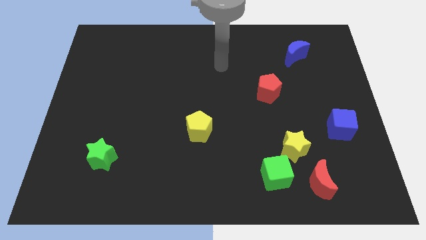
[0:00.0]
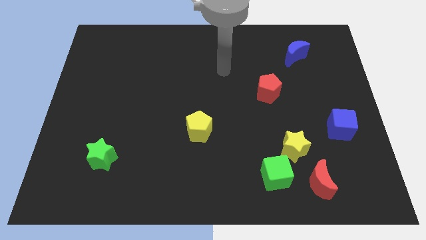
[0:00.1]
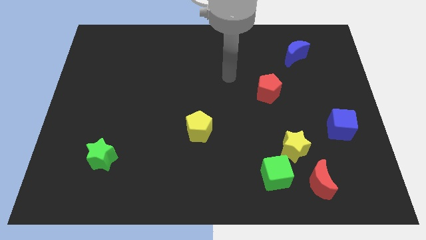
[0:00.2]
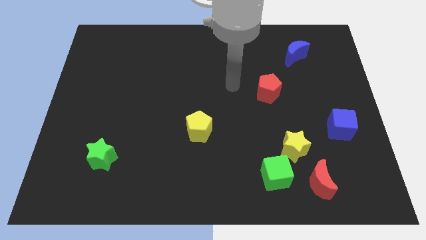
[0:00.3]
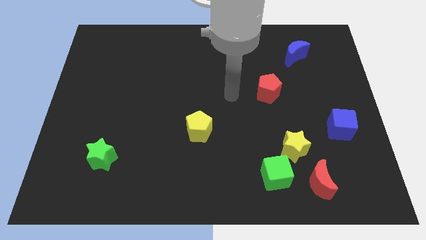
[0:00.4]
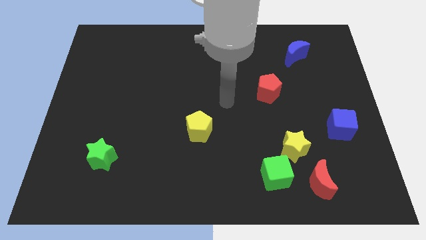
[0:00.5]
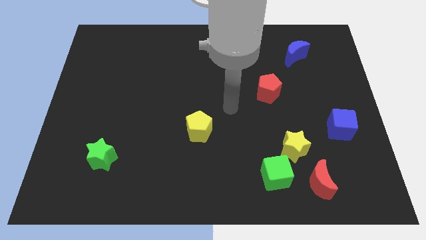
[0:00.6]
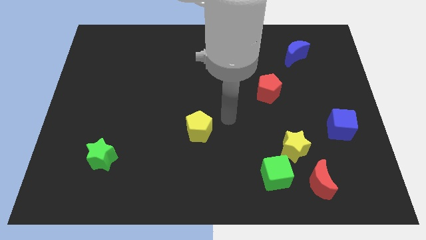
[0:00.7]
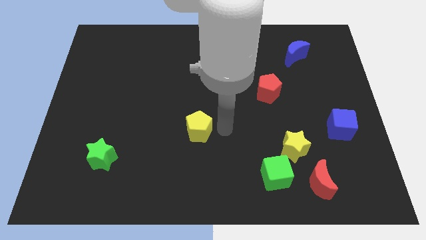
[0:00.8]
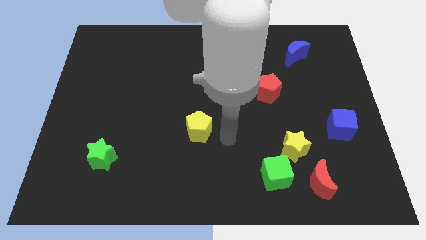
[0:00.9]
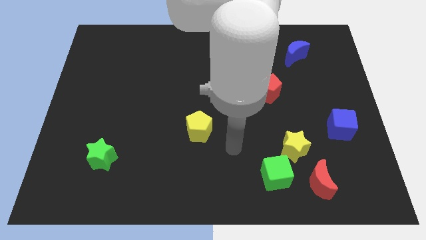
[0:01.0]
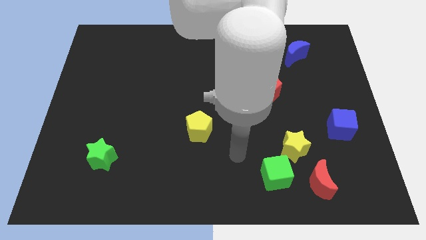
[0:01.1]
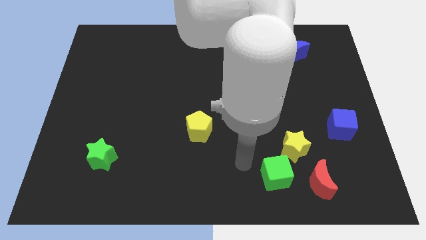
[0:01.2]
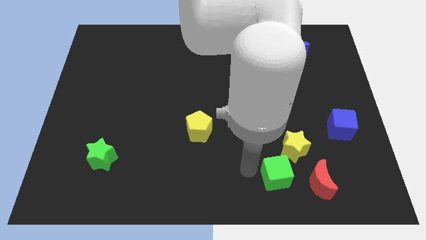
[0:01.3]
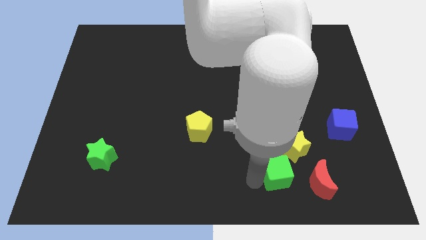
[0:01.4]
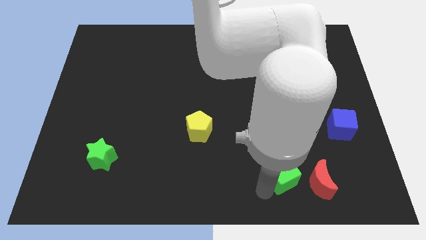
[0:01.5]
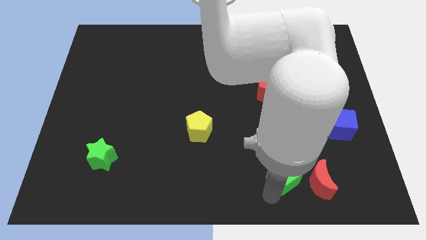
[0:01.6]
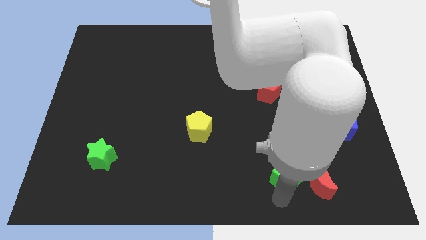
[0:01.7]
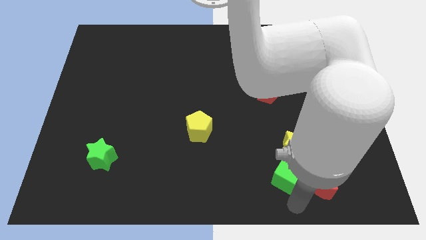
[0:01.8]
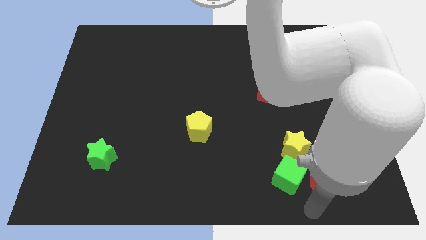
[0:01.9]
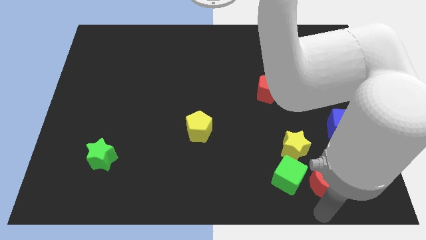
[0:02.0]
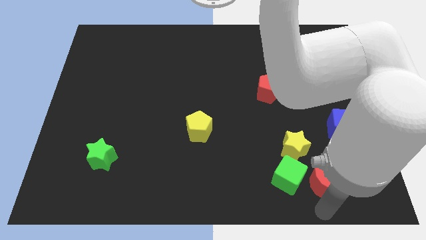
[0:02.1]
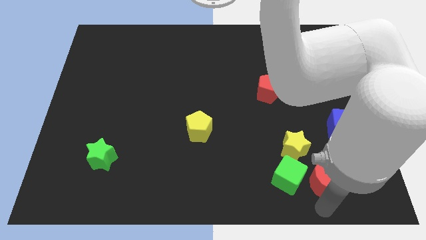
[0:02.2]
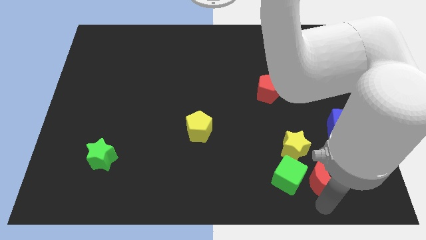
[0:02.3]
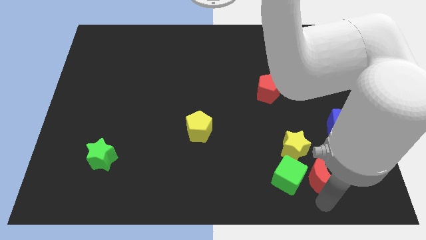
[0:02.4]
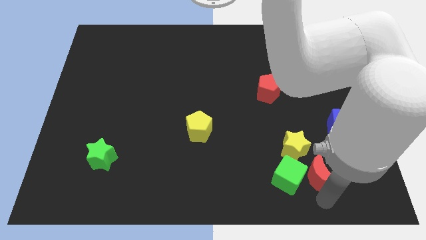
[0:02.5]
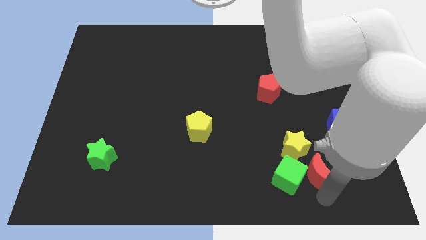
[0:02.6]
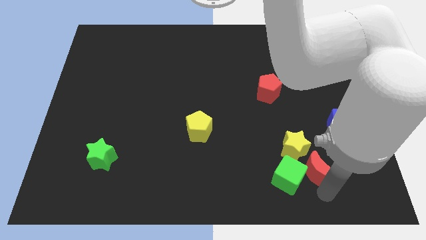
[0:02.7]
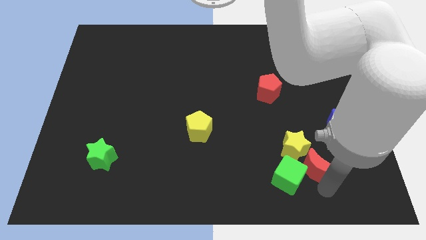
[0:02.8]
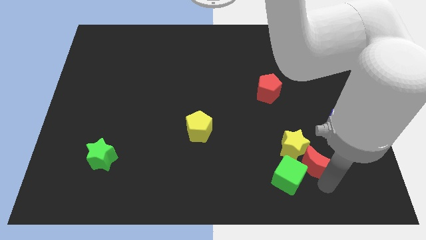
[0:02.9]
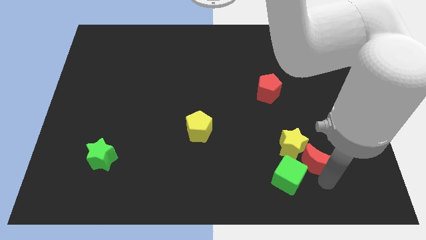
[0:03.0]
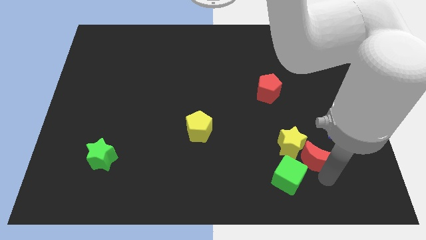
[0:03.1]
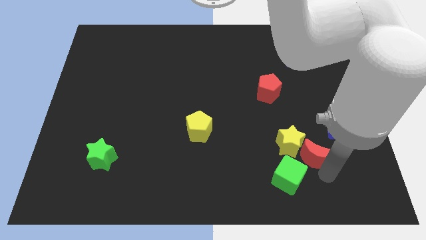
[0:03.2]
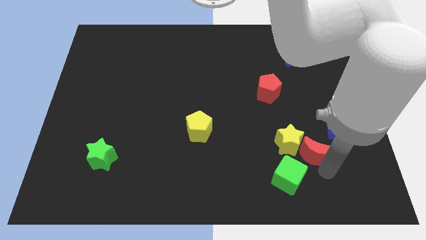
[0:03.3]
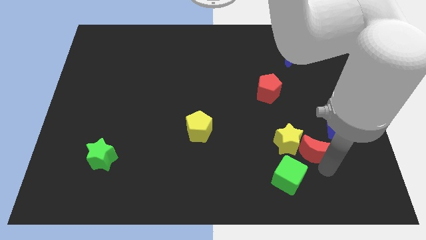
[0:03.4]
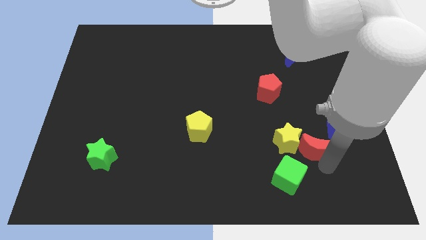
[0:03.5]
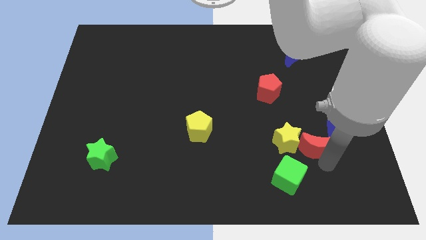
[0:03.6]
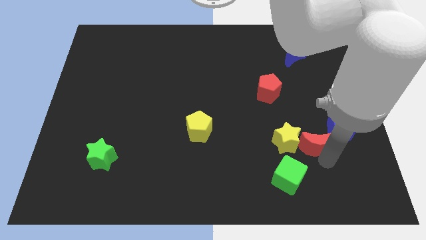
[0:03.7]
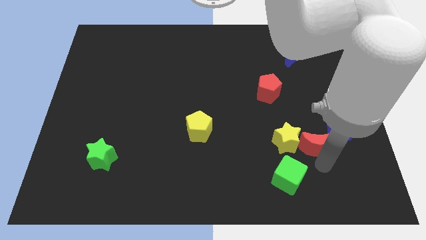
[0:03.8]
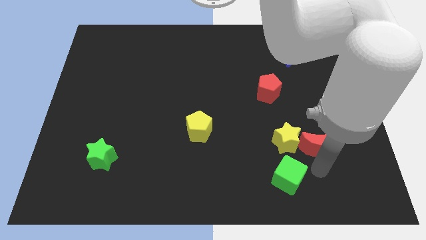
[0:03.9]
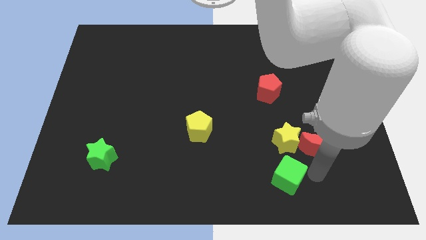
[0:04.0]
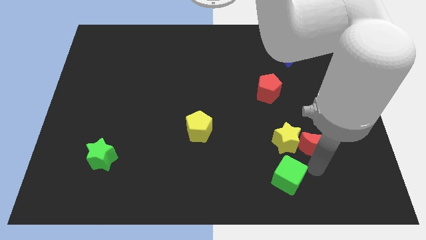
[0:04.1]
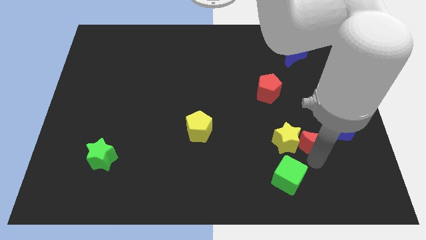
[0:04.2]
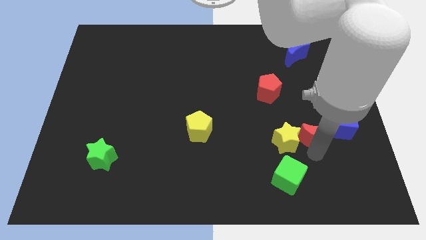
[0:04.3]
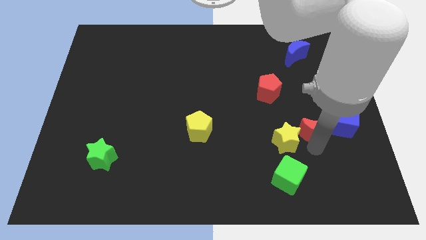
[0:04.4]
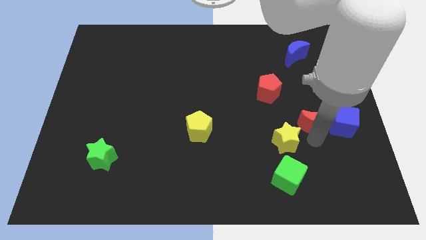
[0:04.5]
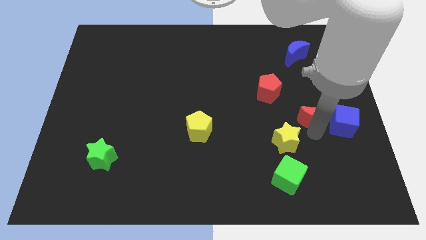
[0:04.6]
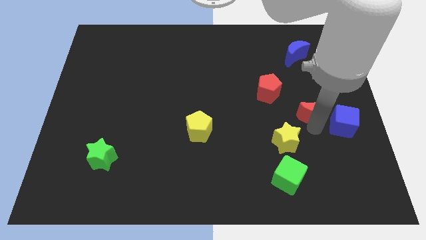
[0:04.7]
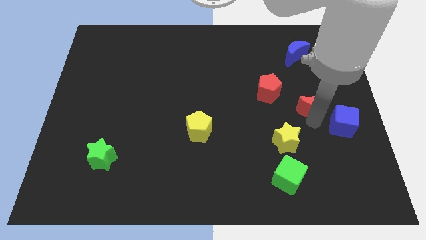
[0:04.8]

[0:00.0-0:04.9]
move the red moon to the right of the red pentagon

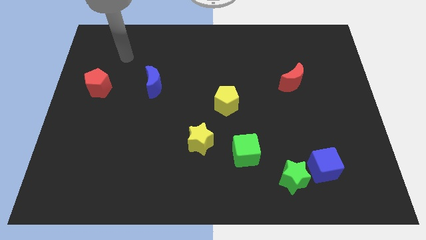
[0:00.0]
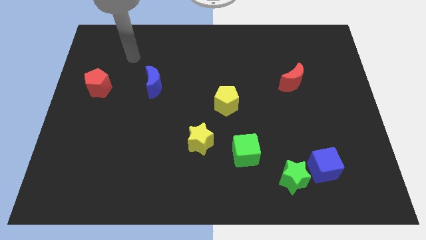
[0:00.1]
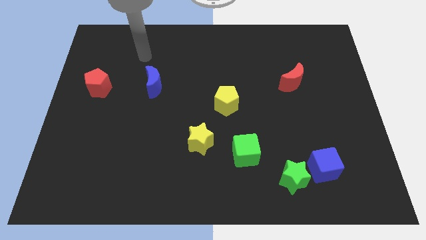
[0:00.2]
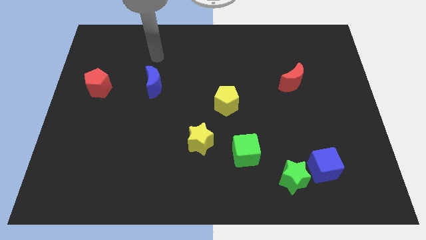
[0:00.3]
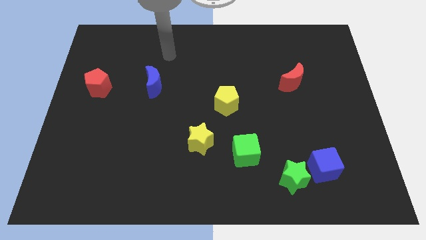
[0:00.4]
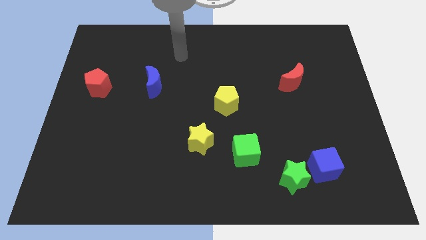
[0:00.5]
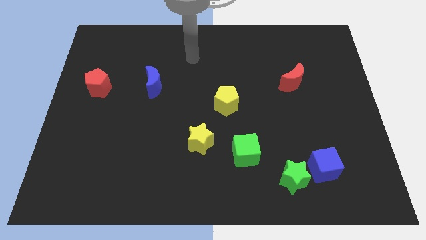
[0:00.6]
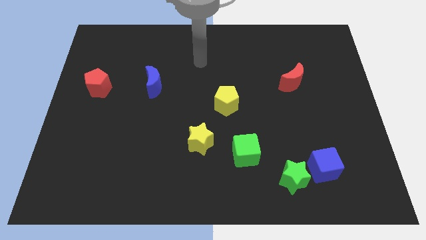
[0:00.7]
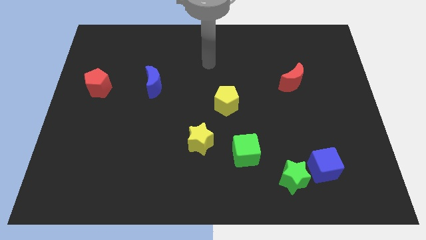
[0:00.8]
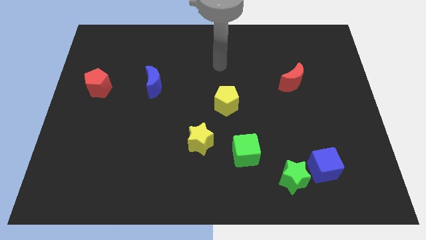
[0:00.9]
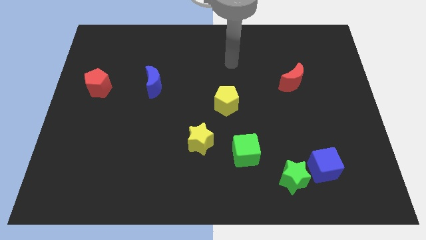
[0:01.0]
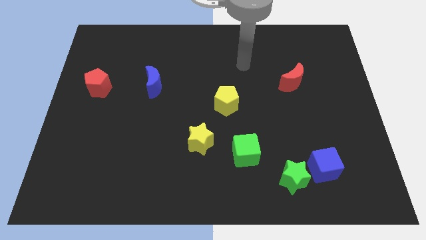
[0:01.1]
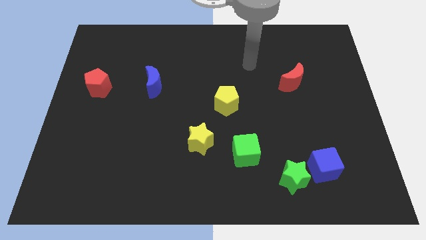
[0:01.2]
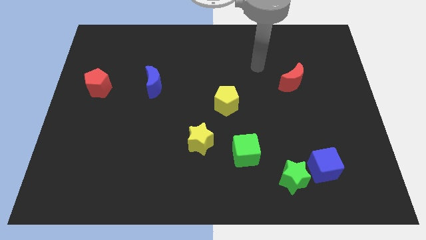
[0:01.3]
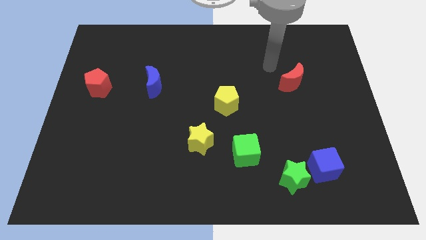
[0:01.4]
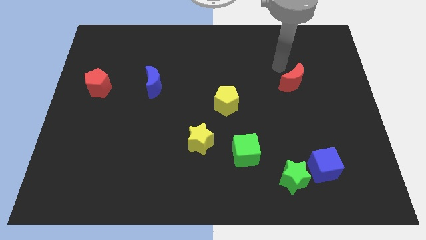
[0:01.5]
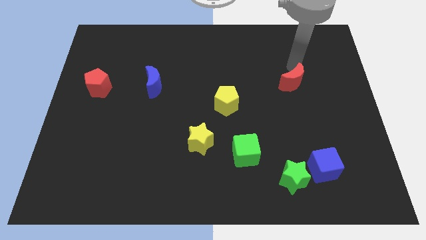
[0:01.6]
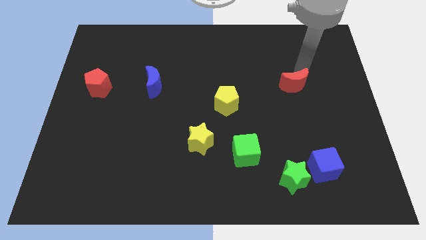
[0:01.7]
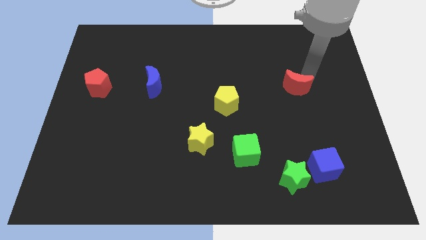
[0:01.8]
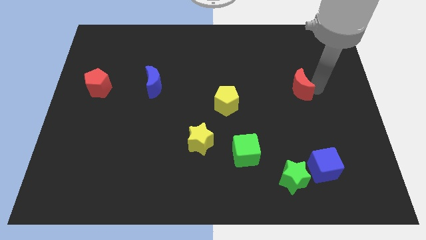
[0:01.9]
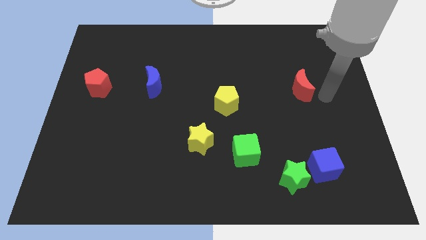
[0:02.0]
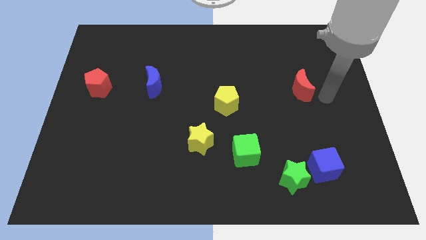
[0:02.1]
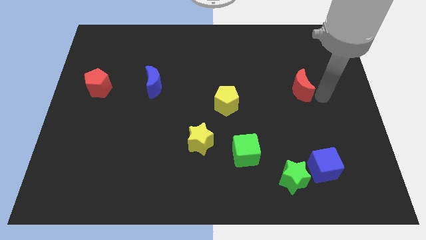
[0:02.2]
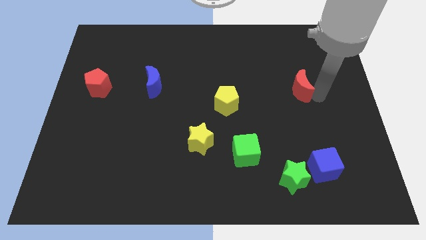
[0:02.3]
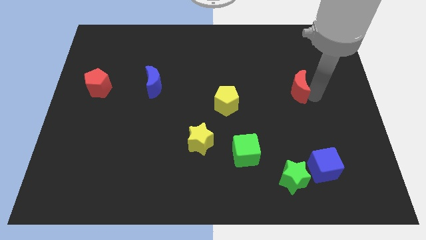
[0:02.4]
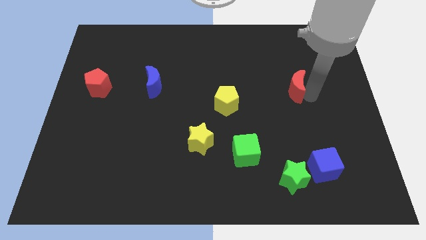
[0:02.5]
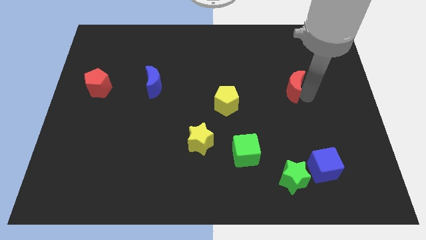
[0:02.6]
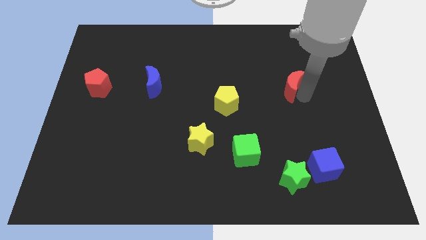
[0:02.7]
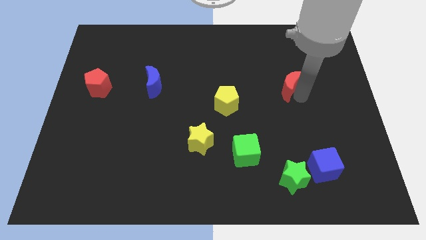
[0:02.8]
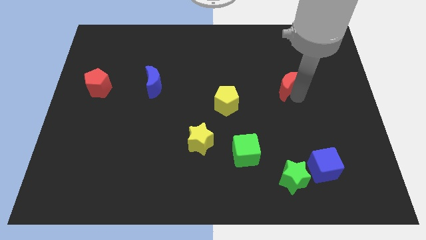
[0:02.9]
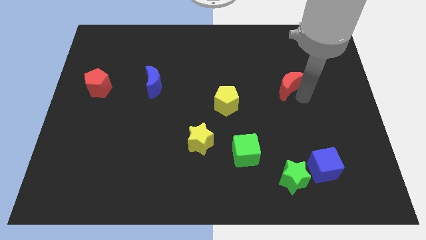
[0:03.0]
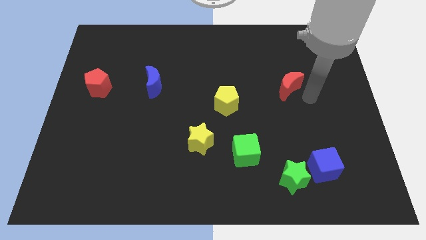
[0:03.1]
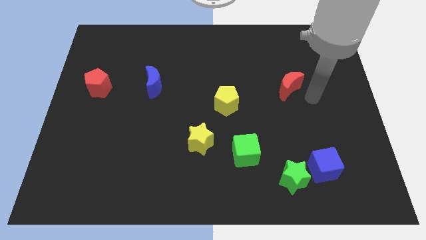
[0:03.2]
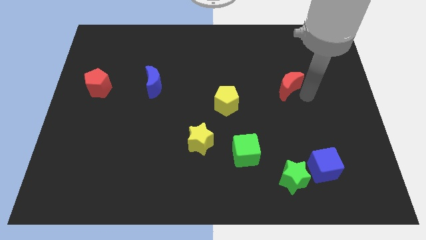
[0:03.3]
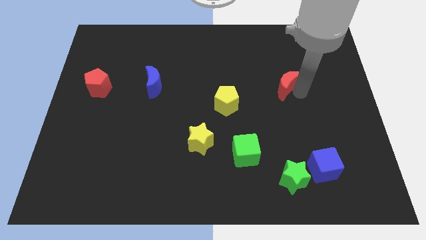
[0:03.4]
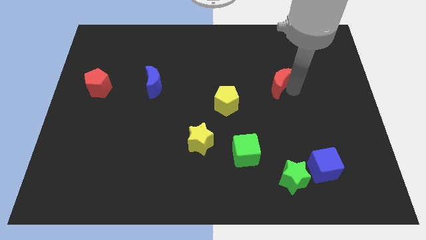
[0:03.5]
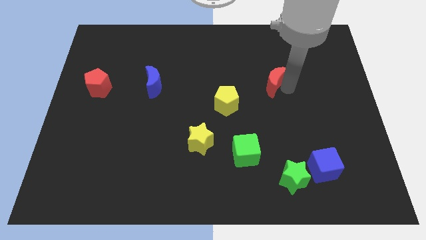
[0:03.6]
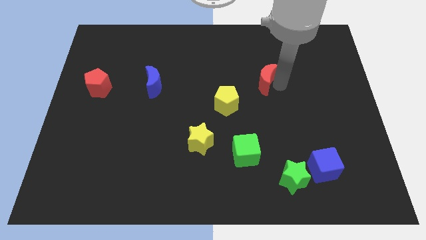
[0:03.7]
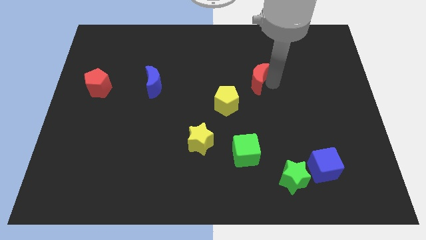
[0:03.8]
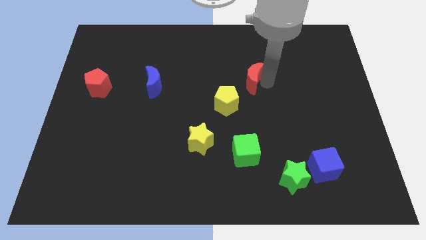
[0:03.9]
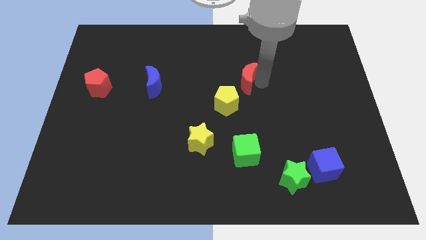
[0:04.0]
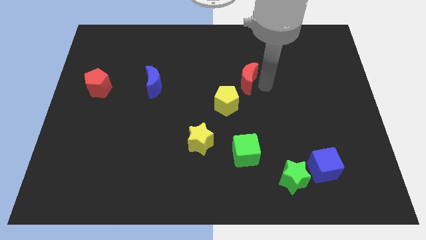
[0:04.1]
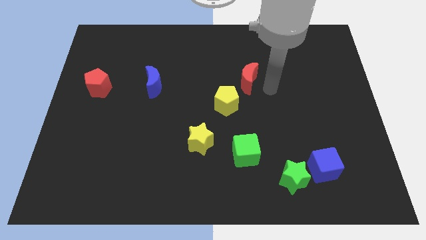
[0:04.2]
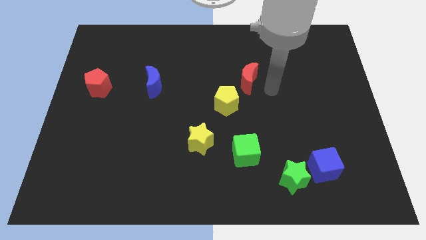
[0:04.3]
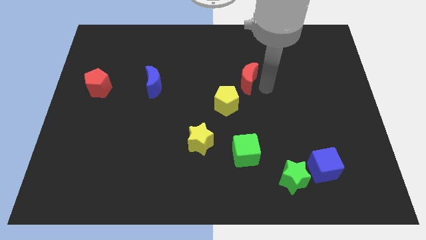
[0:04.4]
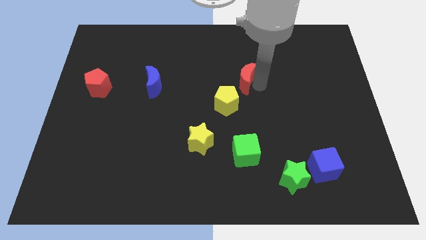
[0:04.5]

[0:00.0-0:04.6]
put the red moon above the yellow pentagon
